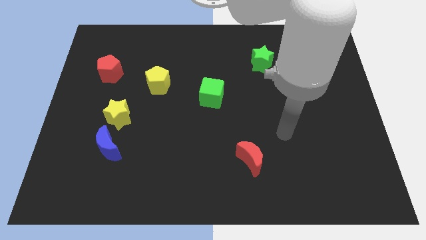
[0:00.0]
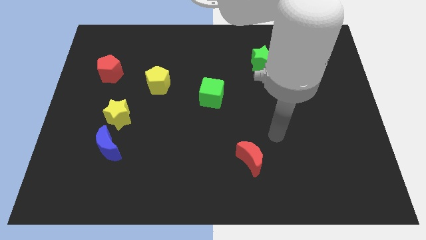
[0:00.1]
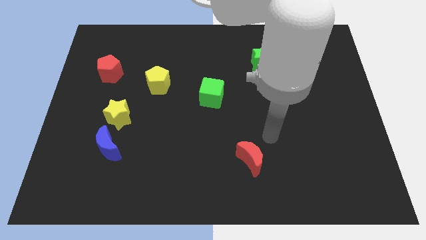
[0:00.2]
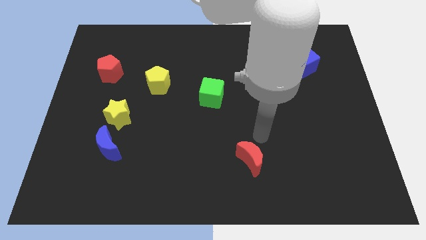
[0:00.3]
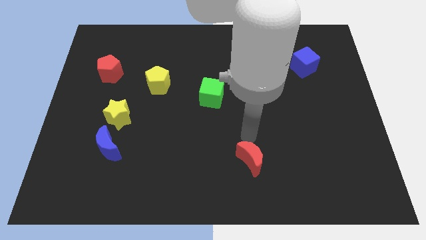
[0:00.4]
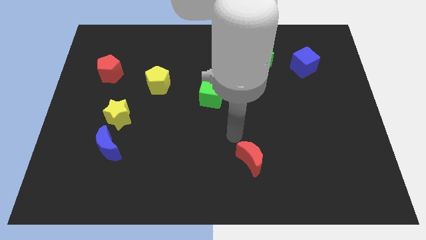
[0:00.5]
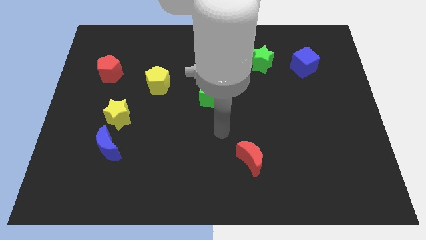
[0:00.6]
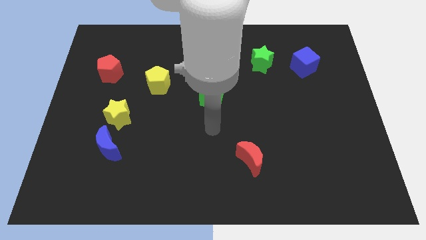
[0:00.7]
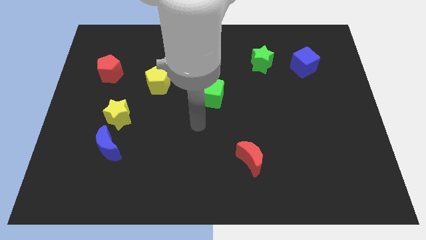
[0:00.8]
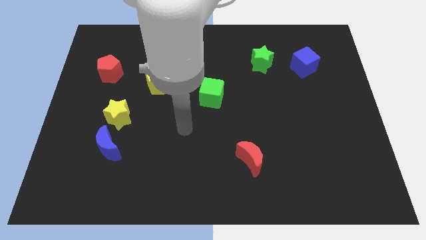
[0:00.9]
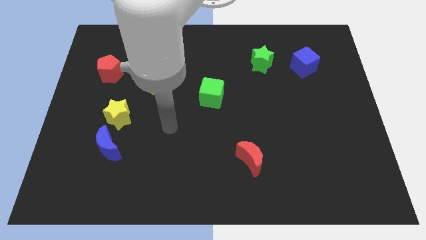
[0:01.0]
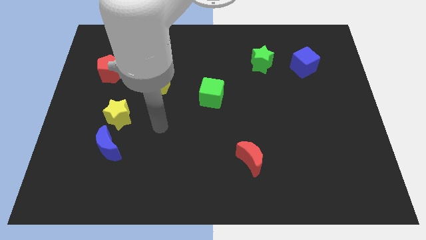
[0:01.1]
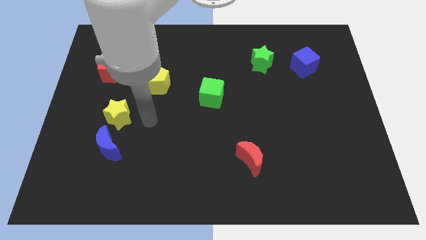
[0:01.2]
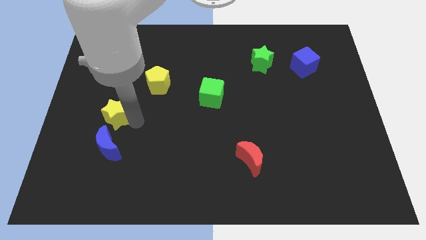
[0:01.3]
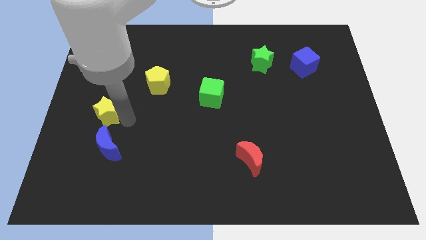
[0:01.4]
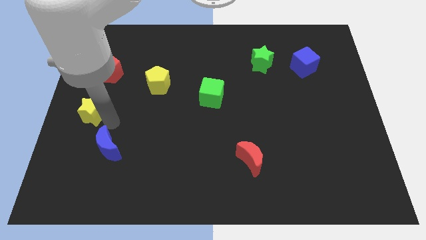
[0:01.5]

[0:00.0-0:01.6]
separate the blue moon from the yellow star

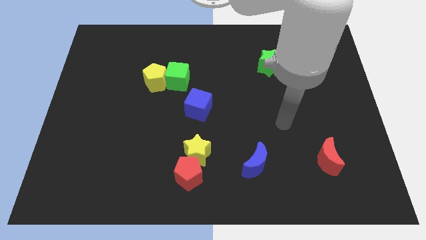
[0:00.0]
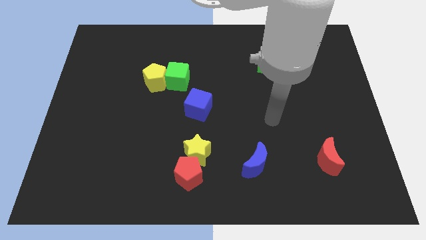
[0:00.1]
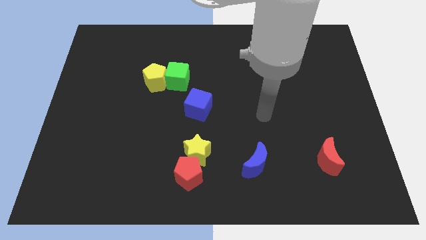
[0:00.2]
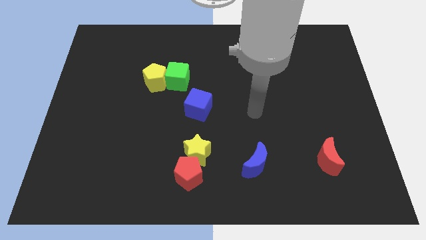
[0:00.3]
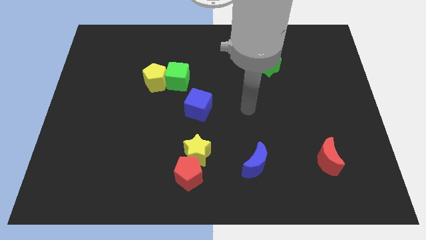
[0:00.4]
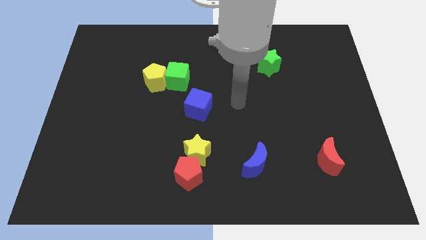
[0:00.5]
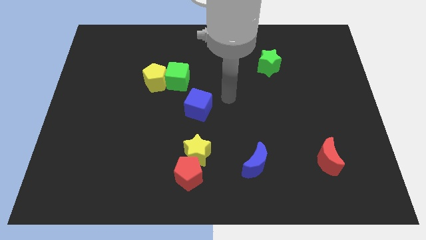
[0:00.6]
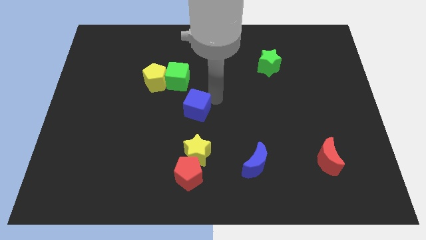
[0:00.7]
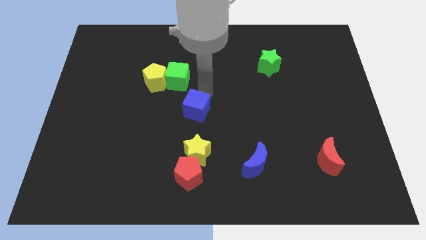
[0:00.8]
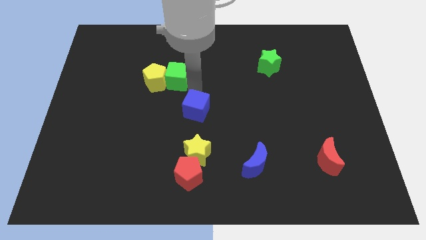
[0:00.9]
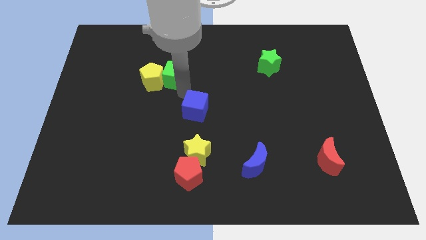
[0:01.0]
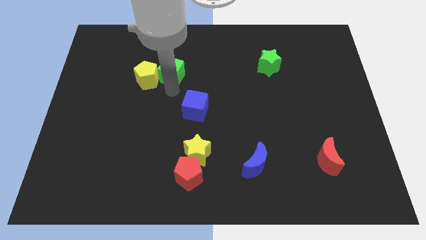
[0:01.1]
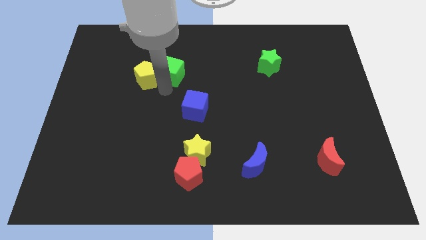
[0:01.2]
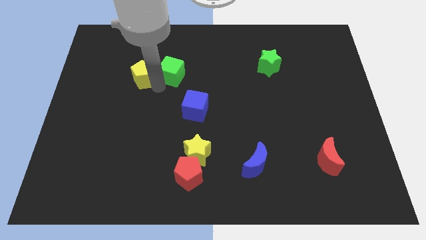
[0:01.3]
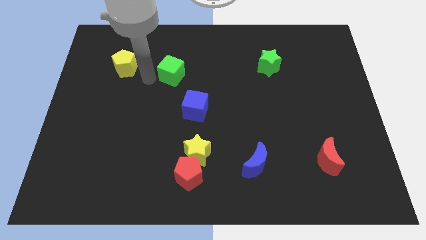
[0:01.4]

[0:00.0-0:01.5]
pull the green cube apart from the yellow pentagon

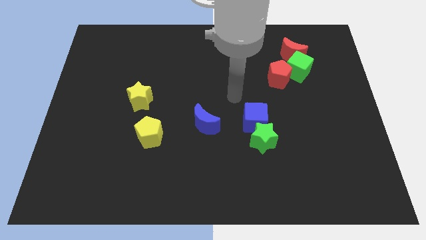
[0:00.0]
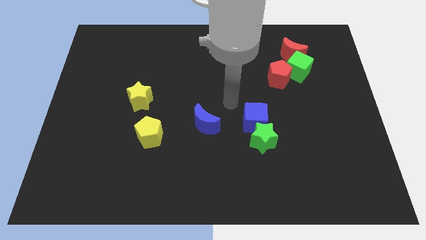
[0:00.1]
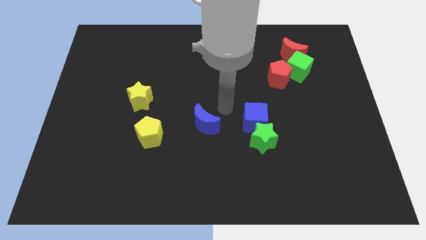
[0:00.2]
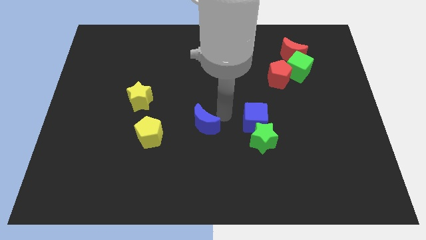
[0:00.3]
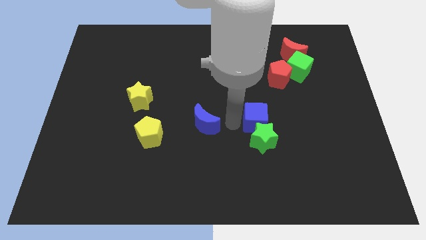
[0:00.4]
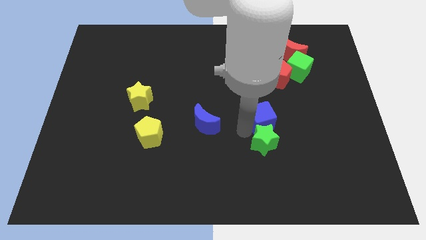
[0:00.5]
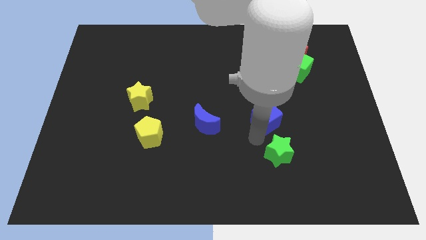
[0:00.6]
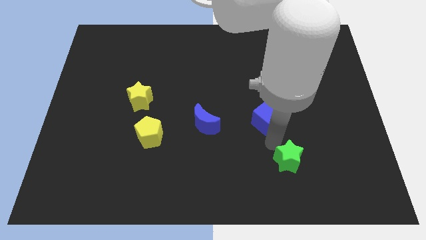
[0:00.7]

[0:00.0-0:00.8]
separate the blue cube from the green star

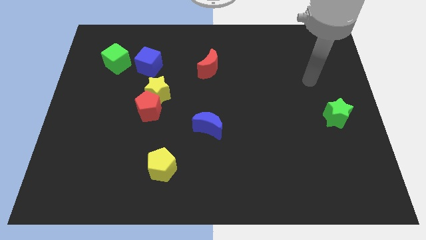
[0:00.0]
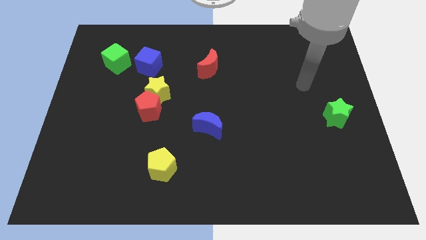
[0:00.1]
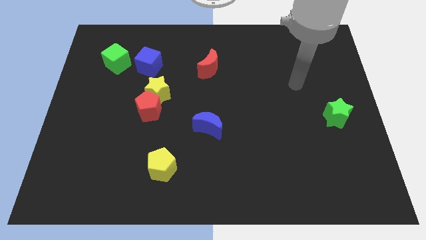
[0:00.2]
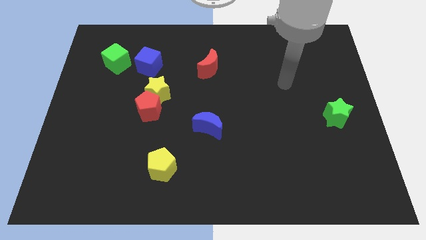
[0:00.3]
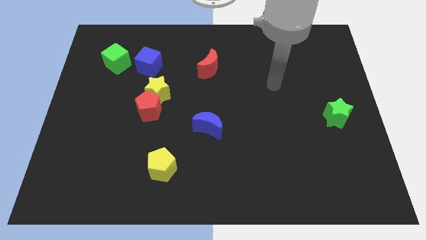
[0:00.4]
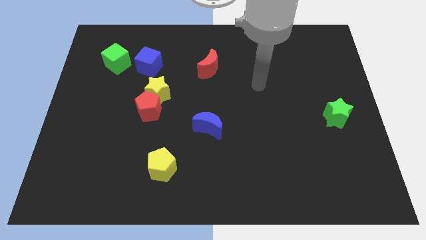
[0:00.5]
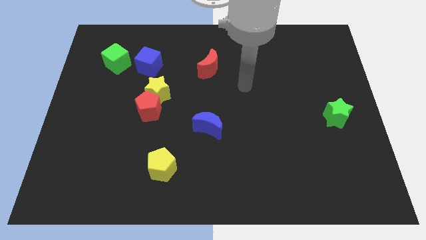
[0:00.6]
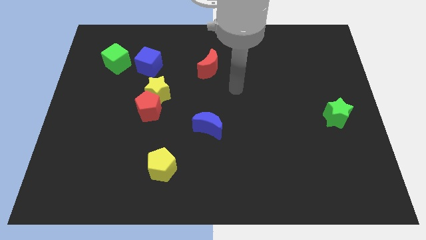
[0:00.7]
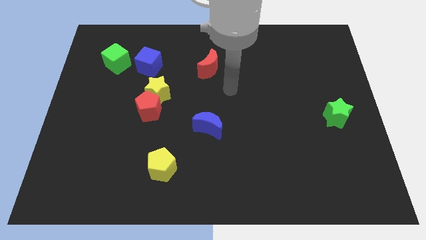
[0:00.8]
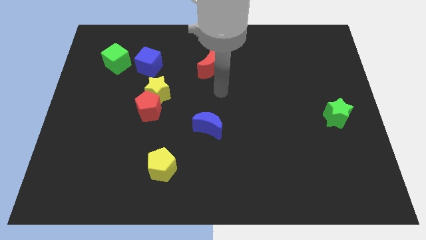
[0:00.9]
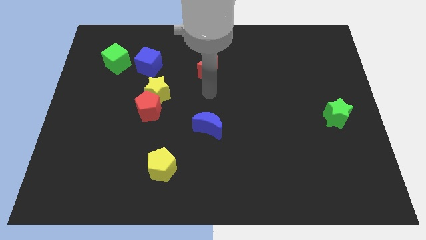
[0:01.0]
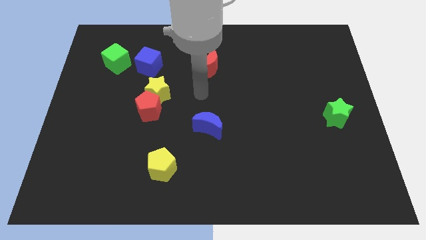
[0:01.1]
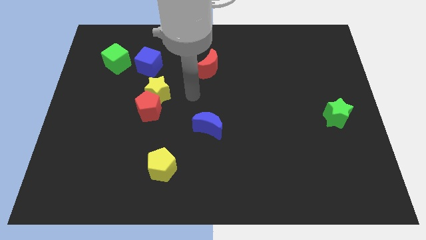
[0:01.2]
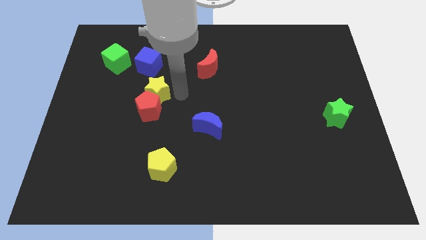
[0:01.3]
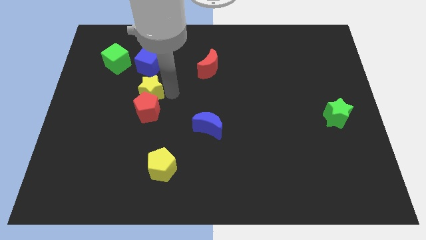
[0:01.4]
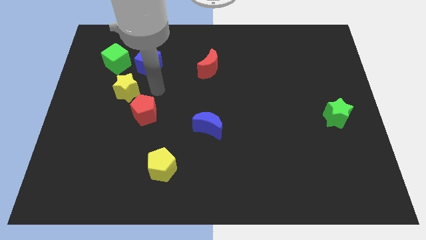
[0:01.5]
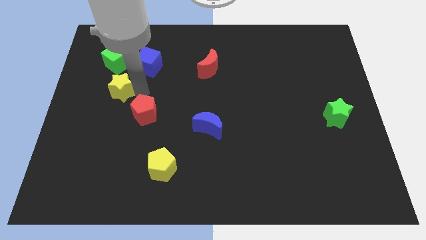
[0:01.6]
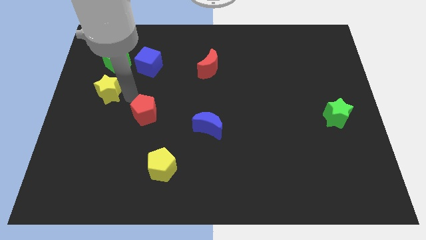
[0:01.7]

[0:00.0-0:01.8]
pull the red pentagon apart from the yellow star

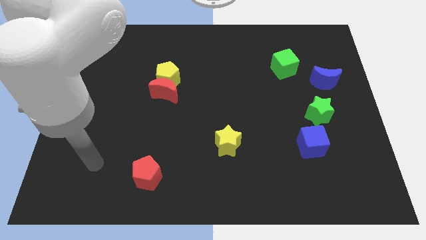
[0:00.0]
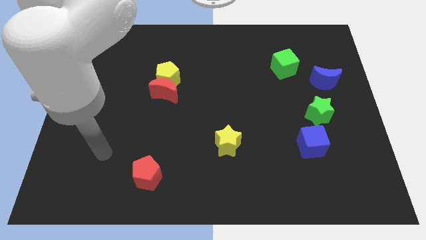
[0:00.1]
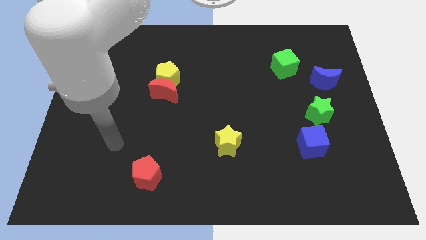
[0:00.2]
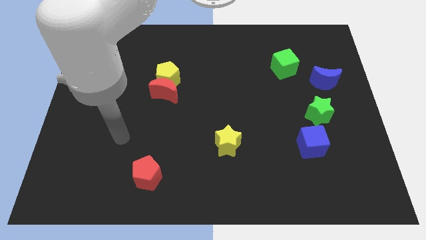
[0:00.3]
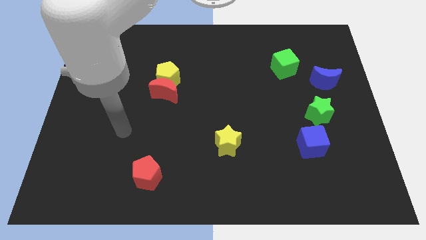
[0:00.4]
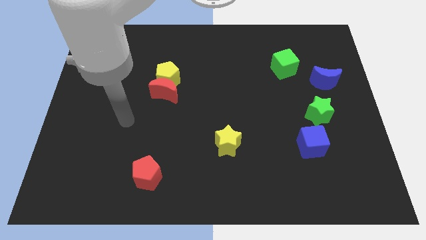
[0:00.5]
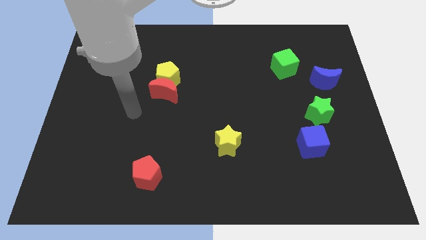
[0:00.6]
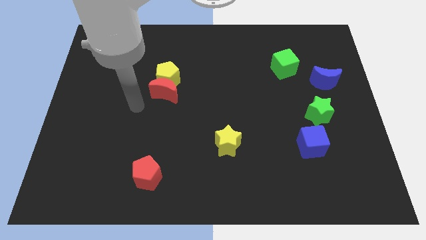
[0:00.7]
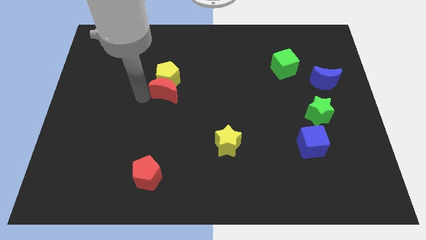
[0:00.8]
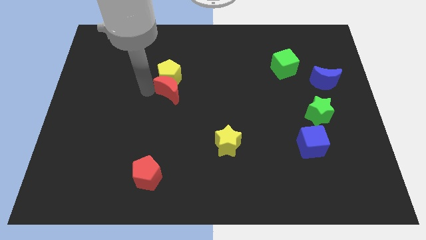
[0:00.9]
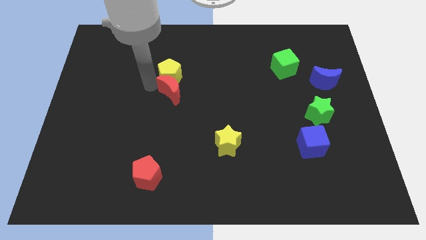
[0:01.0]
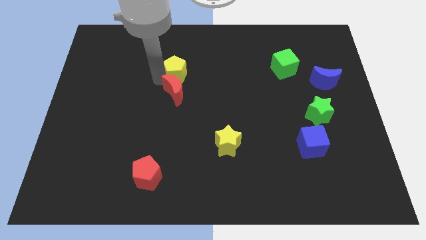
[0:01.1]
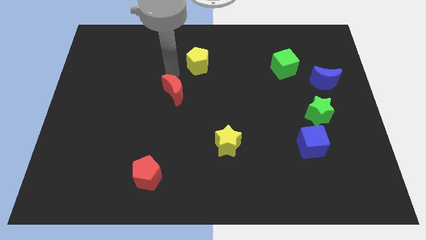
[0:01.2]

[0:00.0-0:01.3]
pull the red moon apart from the yellow pentagon

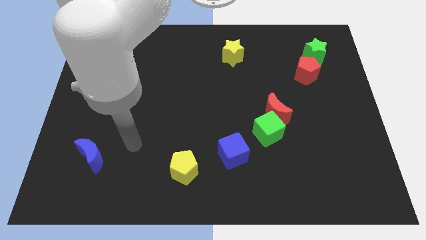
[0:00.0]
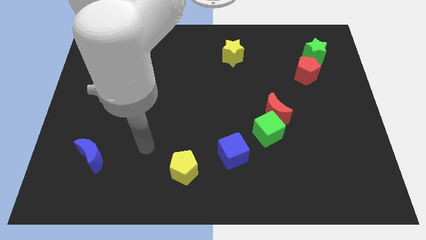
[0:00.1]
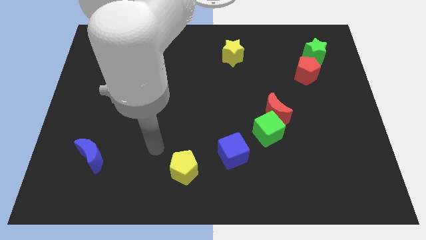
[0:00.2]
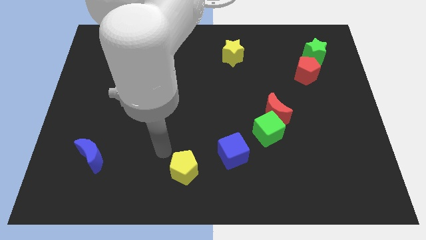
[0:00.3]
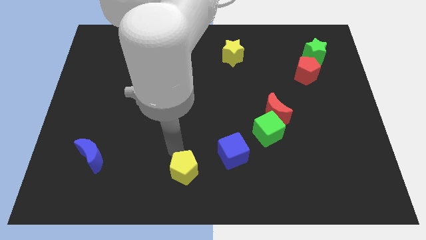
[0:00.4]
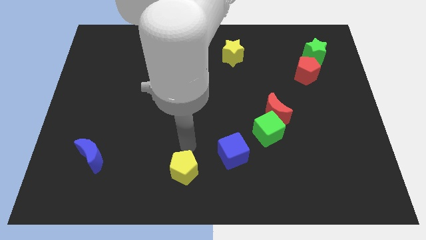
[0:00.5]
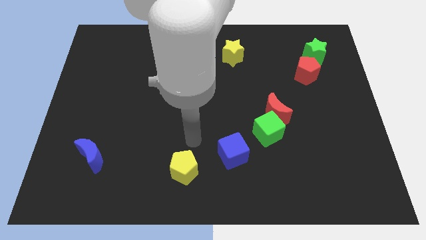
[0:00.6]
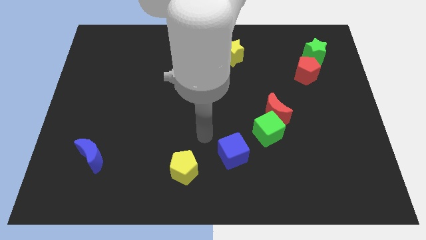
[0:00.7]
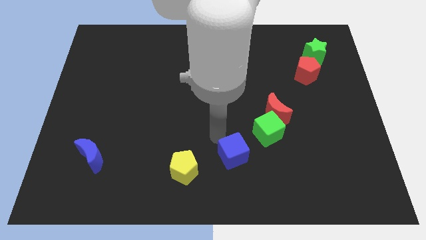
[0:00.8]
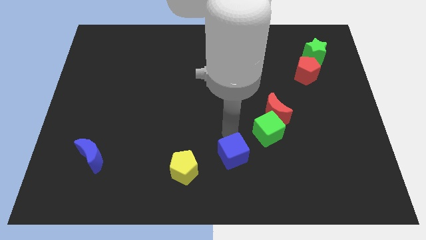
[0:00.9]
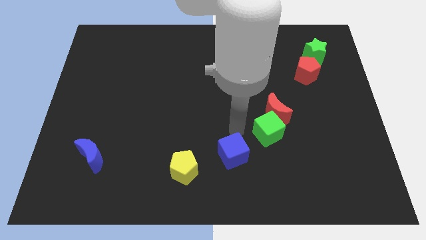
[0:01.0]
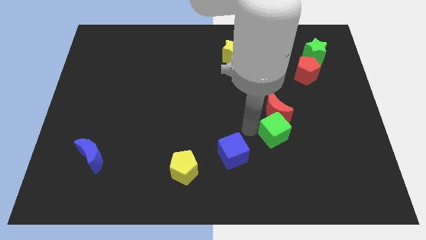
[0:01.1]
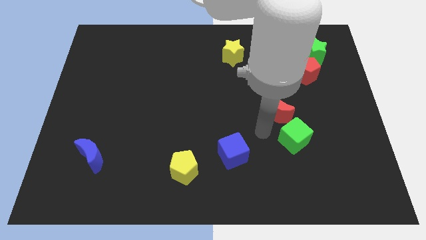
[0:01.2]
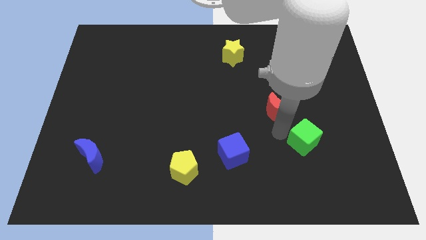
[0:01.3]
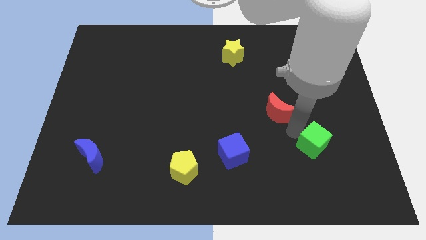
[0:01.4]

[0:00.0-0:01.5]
separate the red moon from the green cube

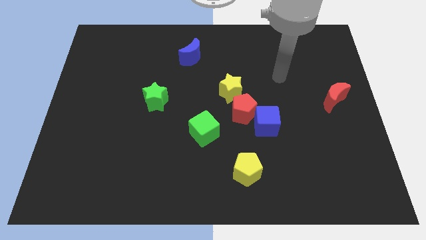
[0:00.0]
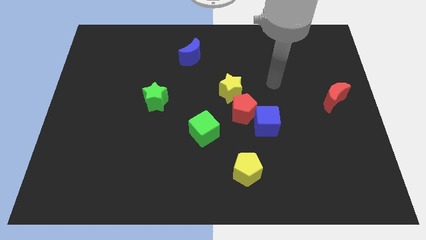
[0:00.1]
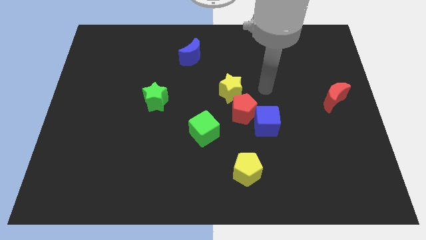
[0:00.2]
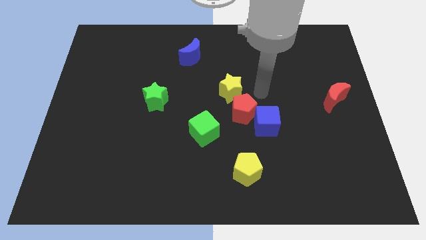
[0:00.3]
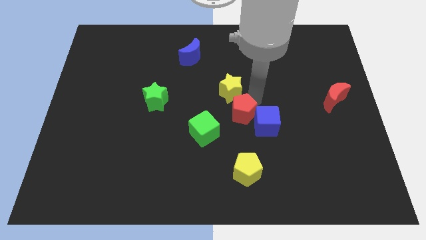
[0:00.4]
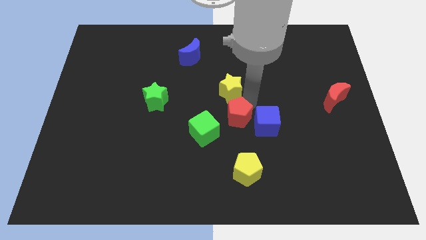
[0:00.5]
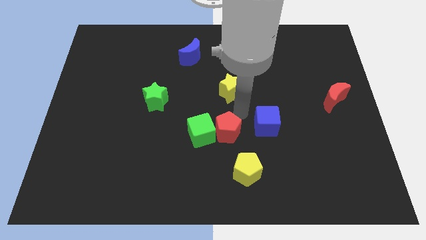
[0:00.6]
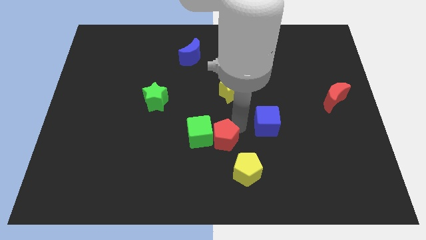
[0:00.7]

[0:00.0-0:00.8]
separate the blue cube from the red pentagon

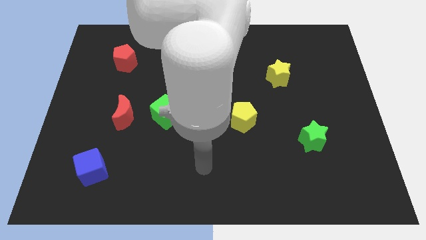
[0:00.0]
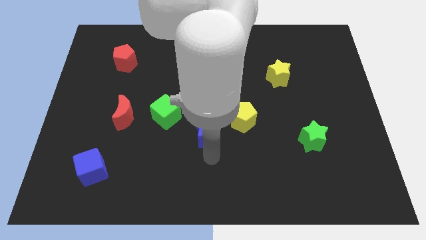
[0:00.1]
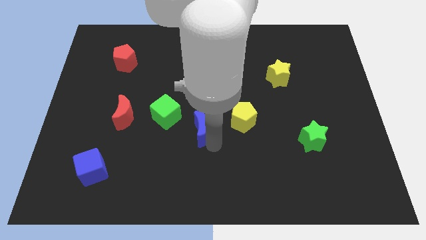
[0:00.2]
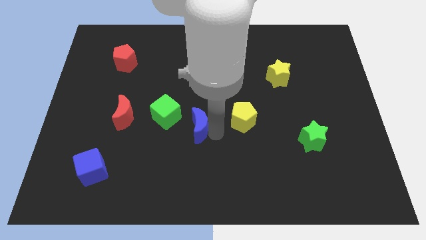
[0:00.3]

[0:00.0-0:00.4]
move the yellow pentagon away from the blue moon
